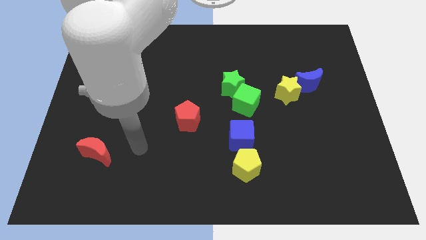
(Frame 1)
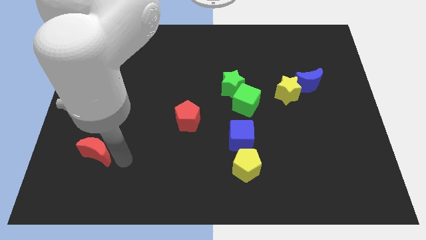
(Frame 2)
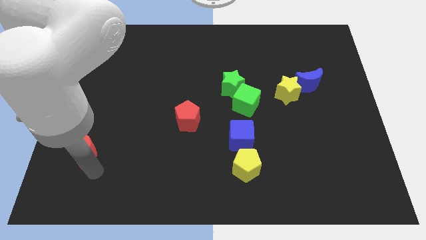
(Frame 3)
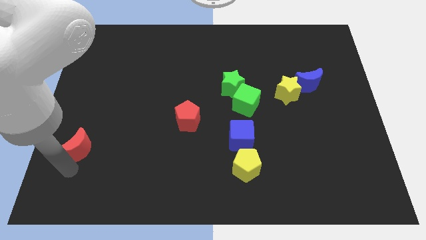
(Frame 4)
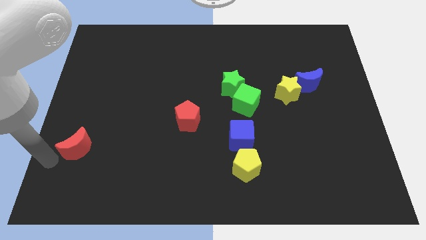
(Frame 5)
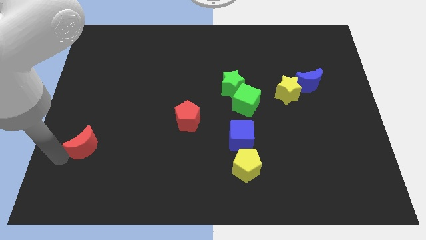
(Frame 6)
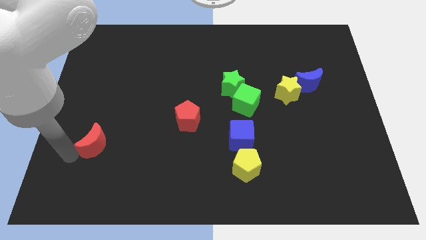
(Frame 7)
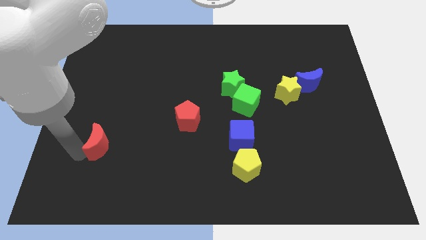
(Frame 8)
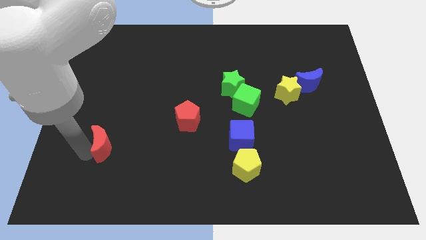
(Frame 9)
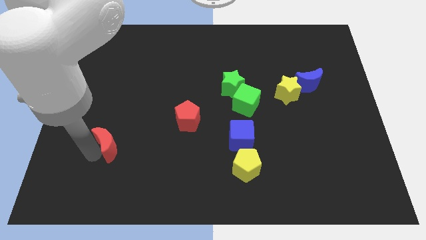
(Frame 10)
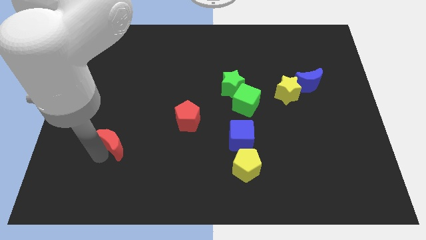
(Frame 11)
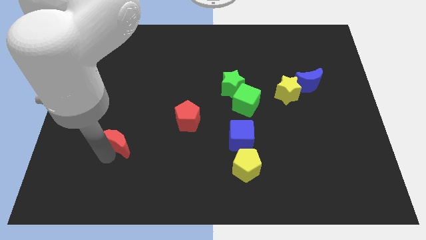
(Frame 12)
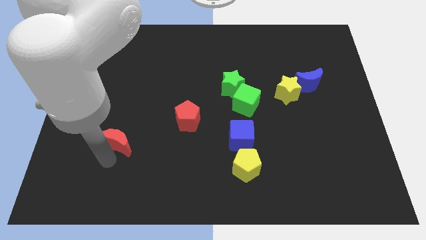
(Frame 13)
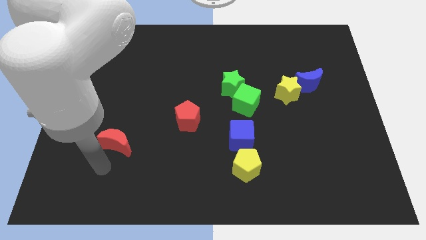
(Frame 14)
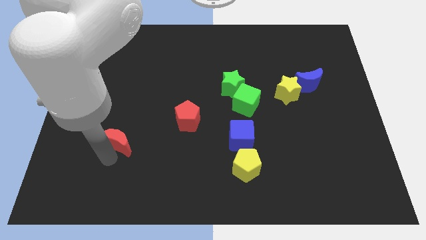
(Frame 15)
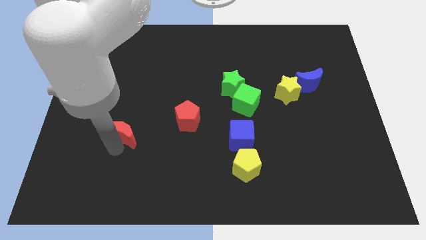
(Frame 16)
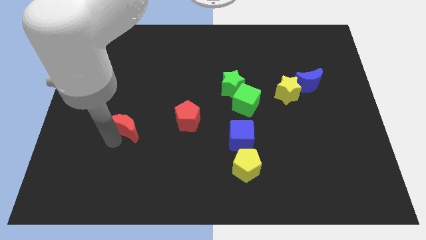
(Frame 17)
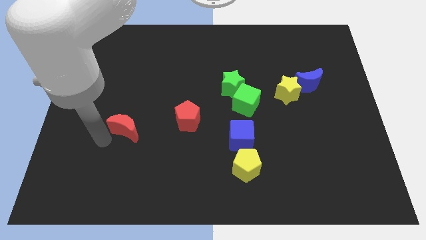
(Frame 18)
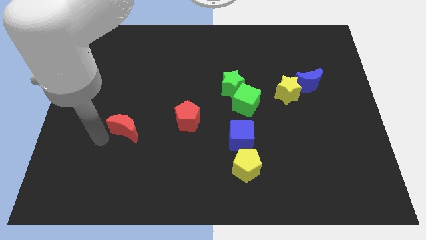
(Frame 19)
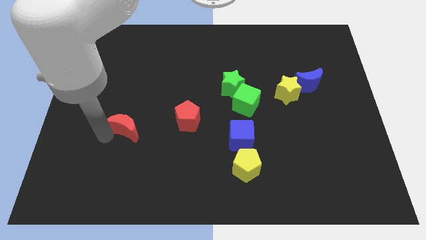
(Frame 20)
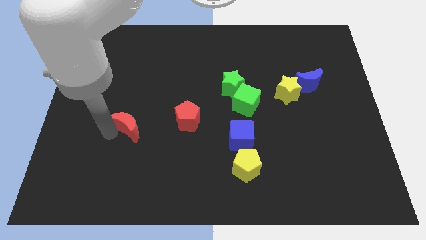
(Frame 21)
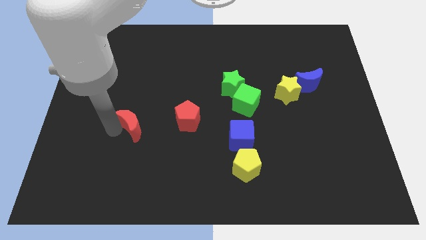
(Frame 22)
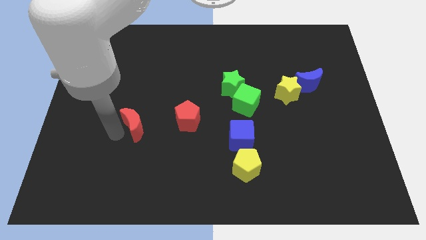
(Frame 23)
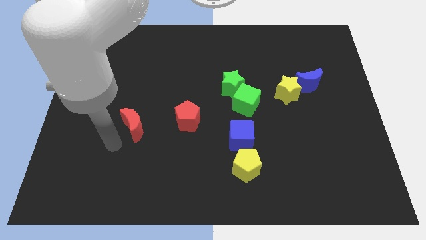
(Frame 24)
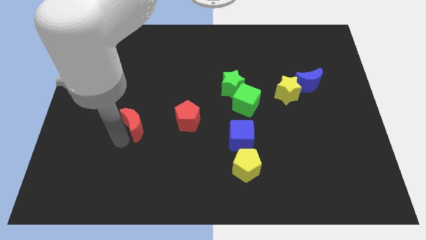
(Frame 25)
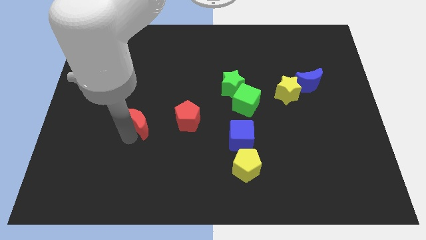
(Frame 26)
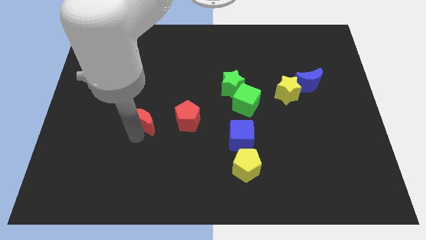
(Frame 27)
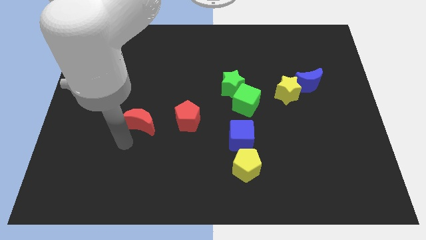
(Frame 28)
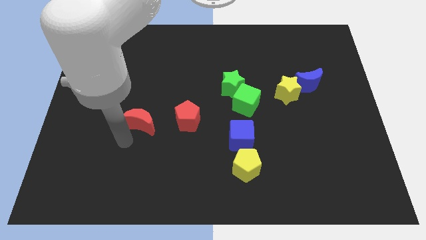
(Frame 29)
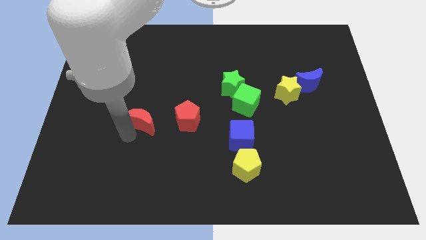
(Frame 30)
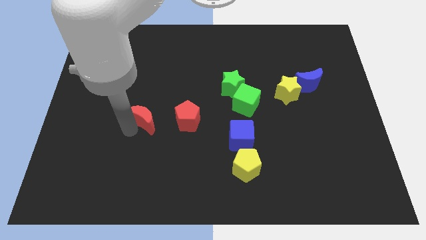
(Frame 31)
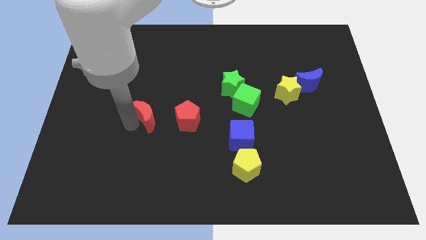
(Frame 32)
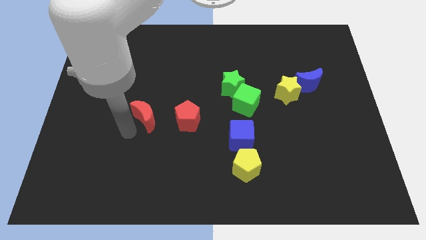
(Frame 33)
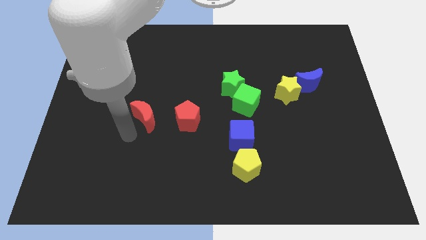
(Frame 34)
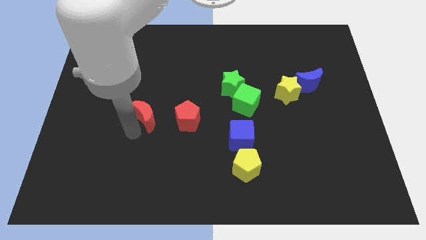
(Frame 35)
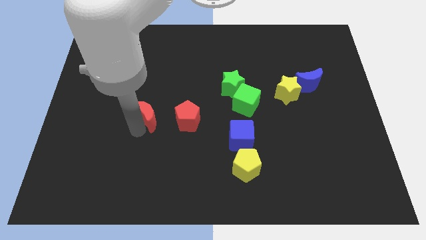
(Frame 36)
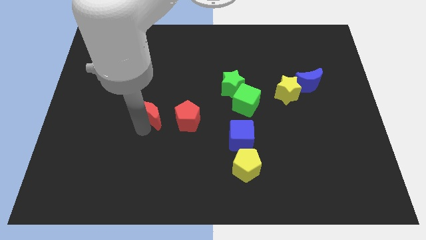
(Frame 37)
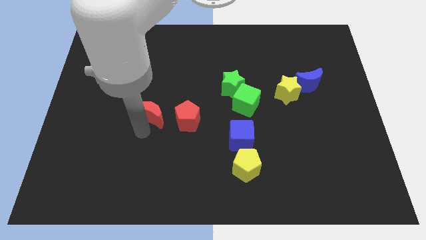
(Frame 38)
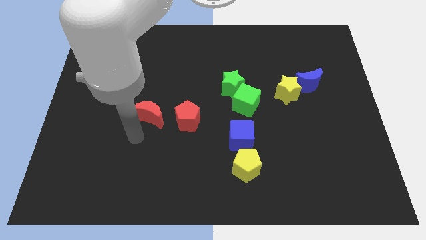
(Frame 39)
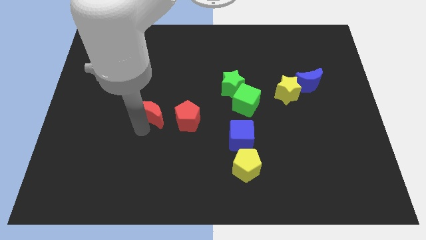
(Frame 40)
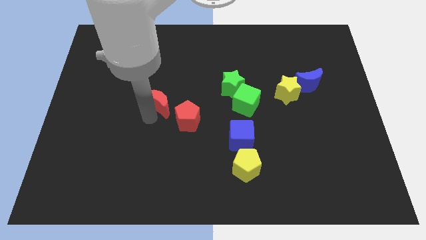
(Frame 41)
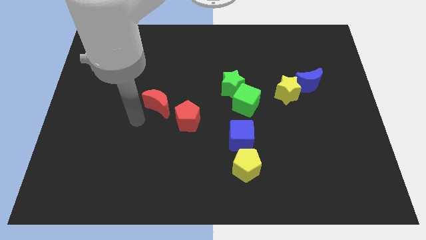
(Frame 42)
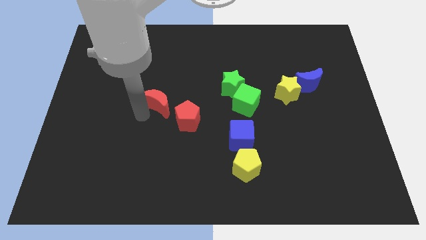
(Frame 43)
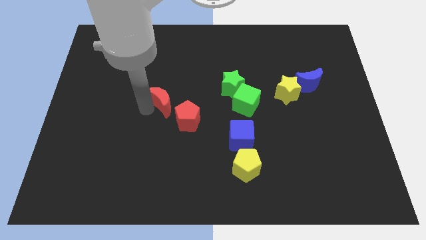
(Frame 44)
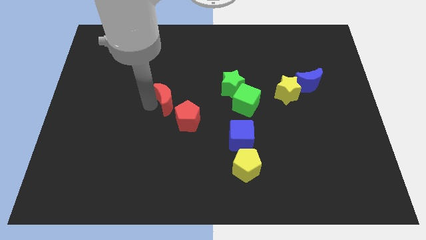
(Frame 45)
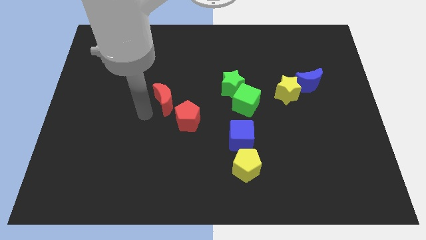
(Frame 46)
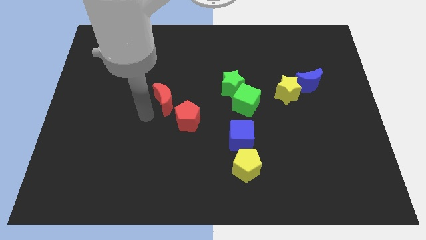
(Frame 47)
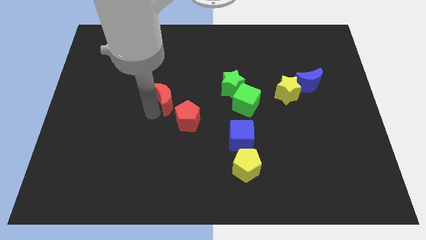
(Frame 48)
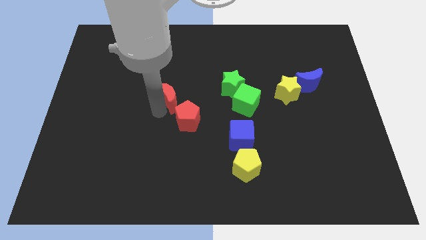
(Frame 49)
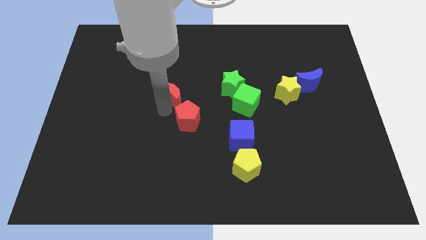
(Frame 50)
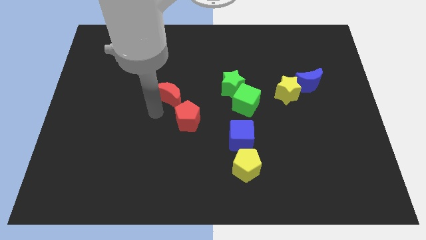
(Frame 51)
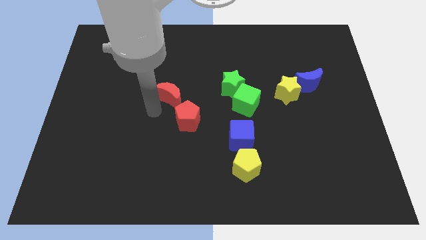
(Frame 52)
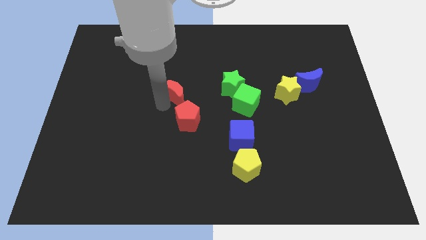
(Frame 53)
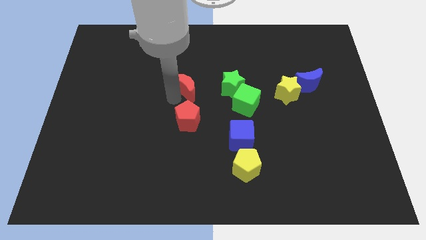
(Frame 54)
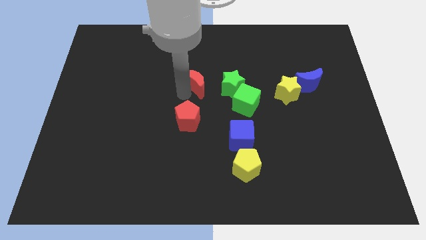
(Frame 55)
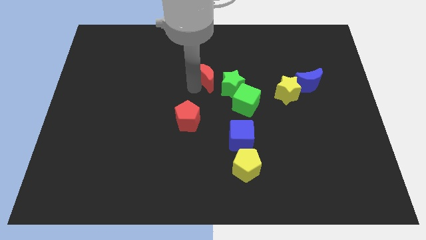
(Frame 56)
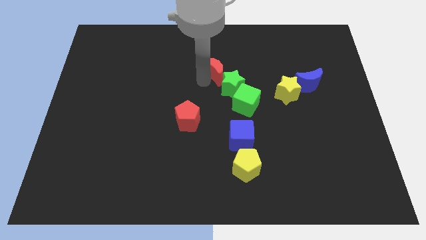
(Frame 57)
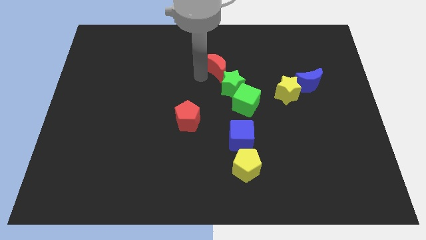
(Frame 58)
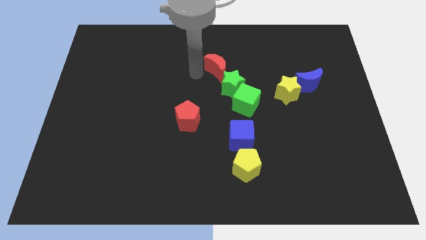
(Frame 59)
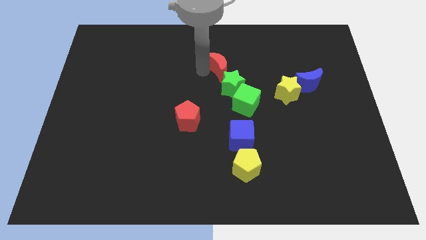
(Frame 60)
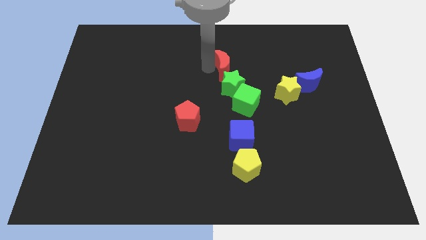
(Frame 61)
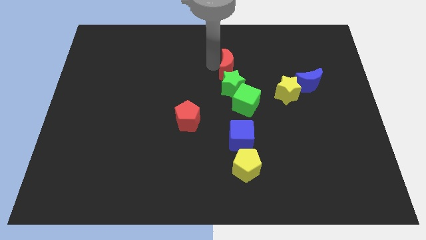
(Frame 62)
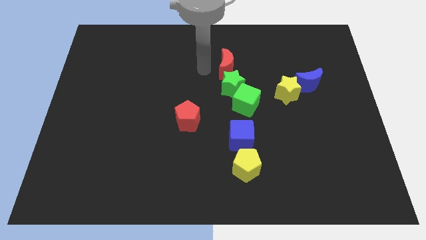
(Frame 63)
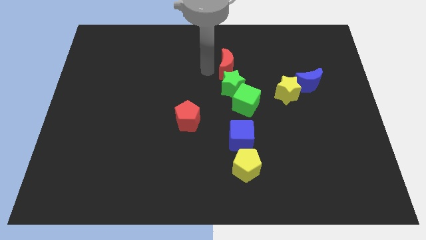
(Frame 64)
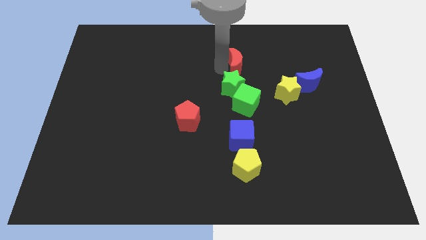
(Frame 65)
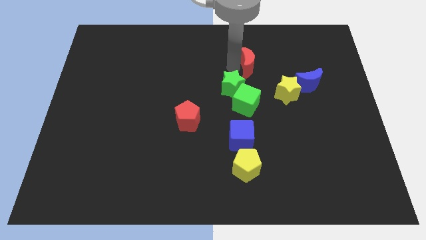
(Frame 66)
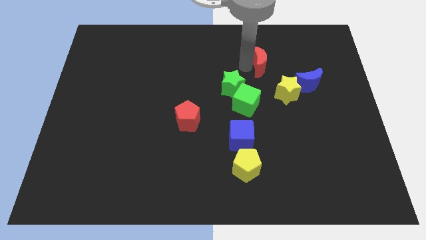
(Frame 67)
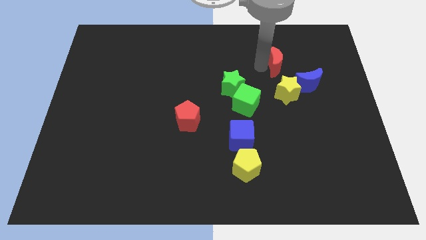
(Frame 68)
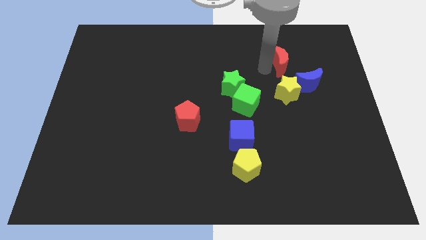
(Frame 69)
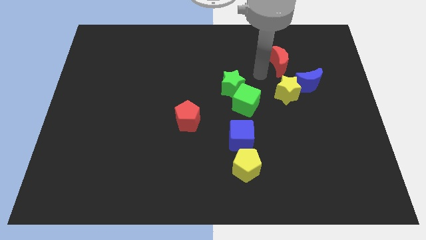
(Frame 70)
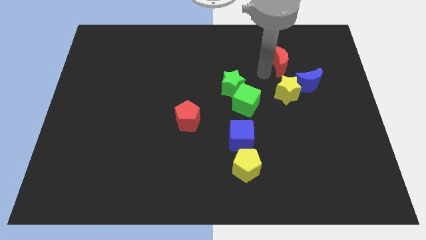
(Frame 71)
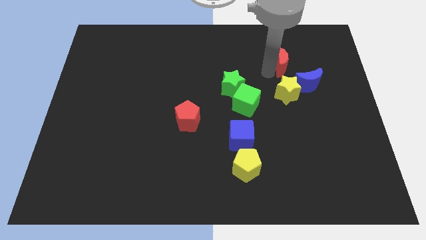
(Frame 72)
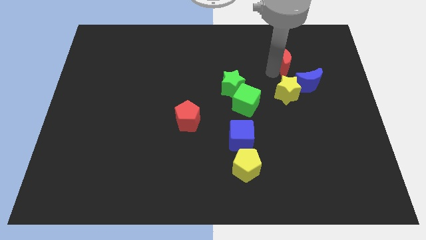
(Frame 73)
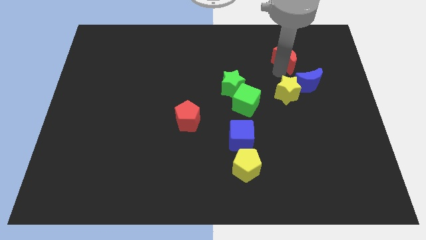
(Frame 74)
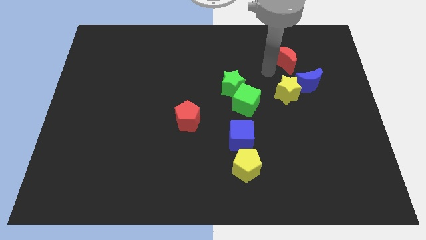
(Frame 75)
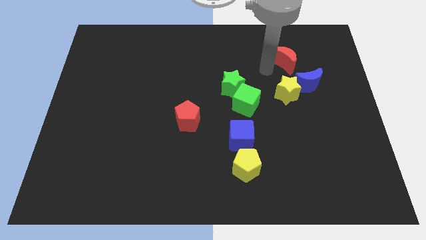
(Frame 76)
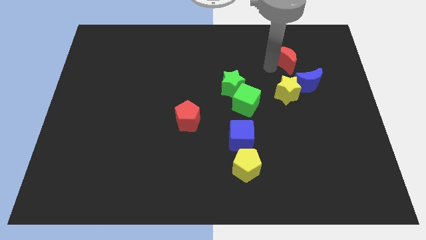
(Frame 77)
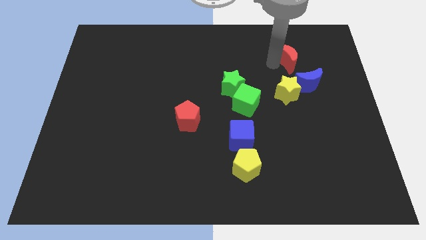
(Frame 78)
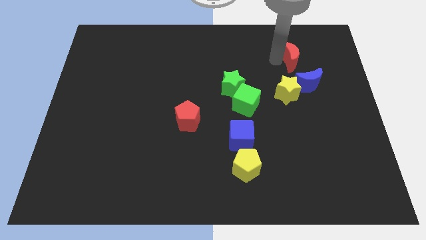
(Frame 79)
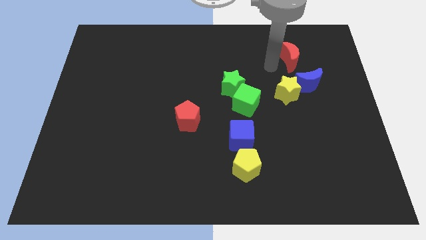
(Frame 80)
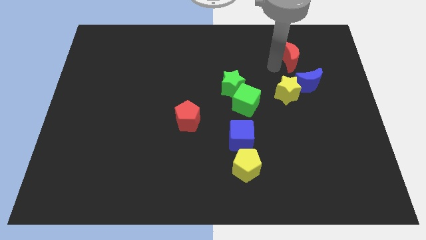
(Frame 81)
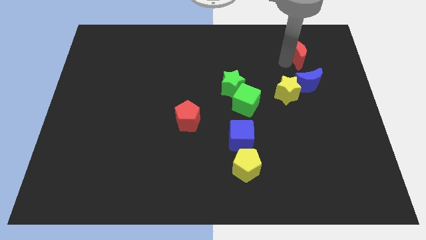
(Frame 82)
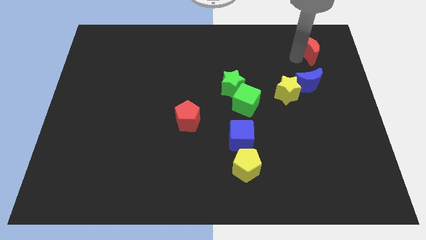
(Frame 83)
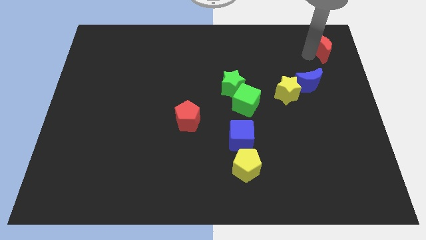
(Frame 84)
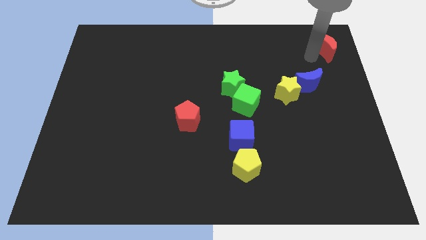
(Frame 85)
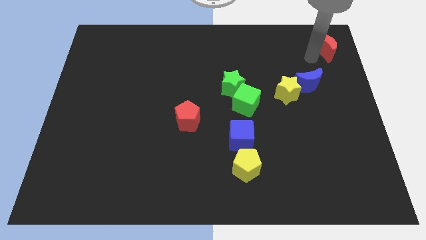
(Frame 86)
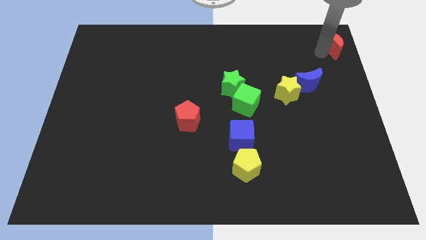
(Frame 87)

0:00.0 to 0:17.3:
slide the red moon to the top right
